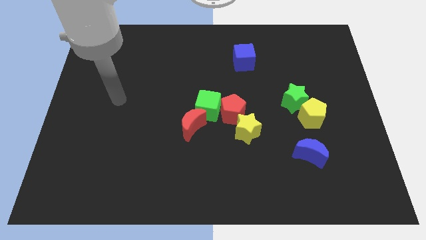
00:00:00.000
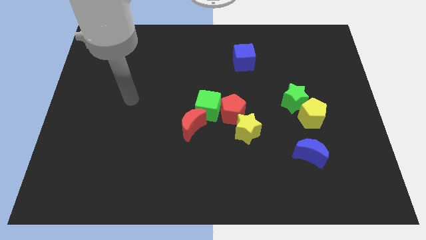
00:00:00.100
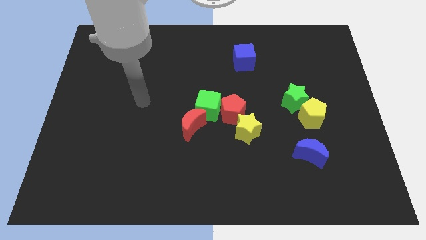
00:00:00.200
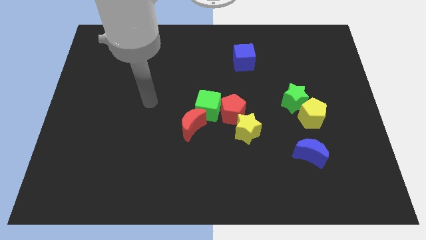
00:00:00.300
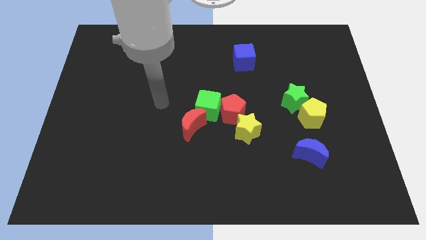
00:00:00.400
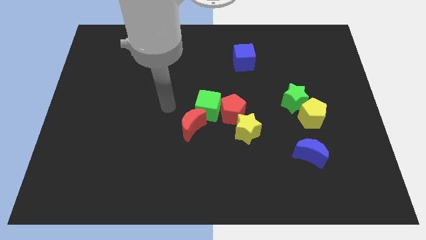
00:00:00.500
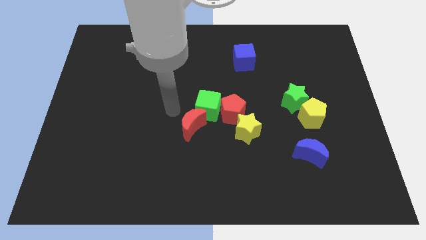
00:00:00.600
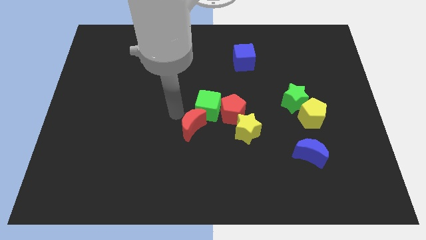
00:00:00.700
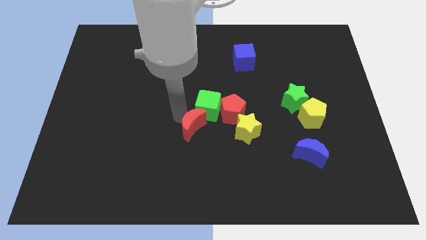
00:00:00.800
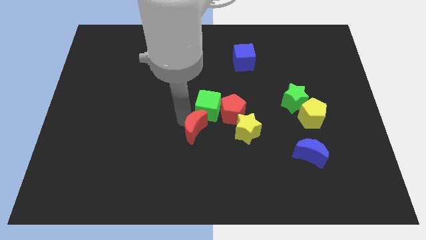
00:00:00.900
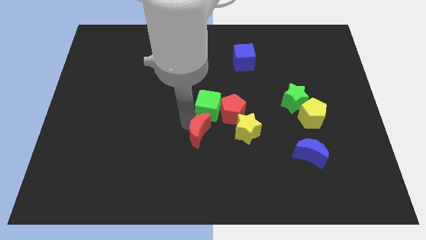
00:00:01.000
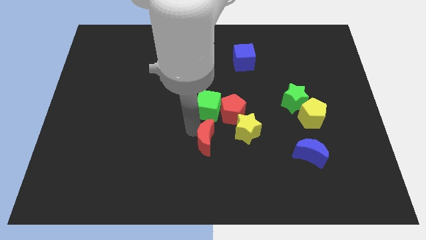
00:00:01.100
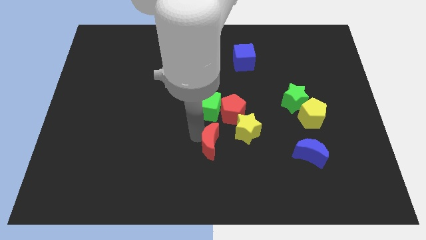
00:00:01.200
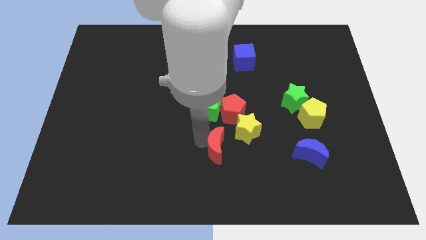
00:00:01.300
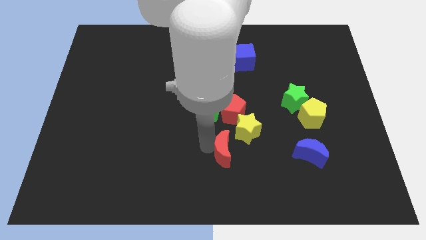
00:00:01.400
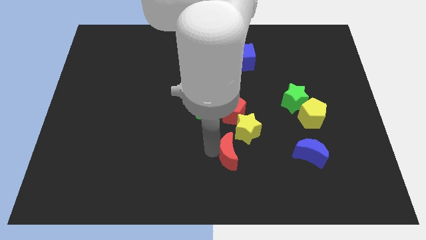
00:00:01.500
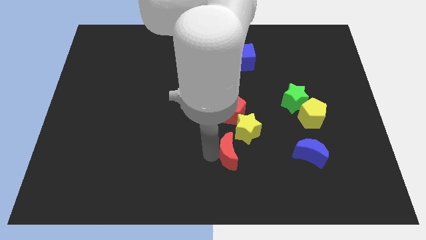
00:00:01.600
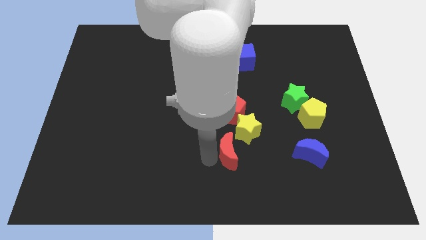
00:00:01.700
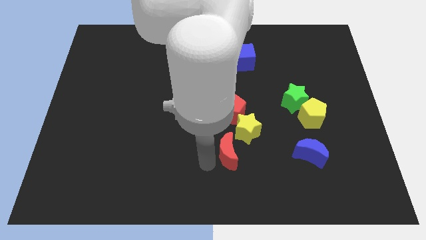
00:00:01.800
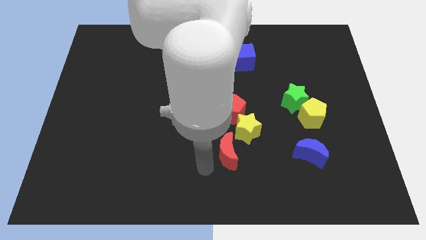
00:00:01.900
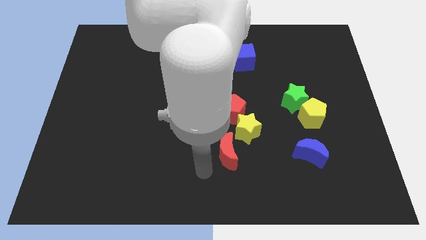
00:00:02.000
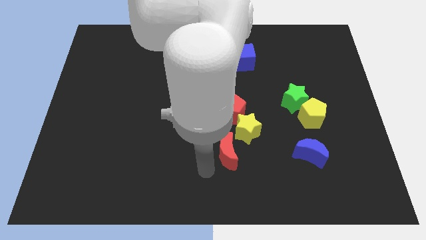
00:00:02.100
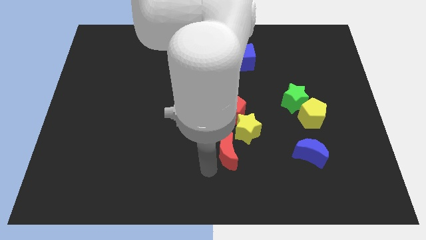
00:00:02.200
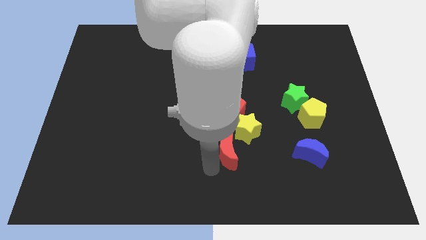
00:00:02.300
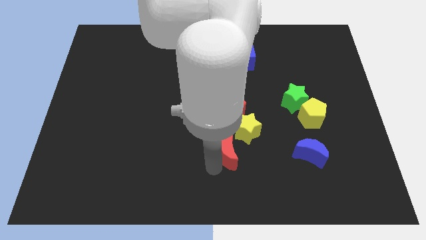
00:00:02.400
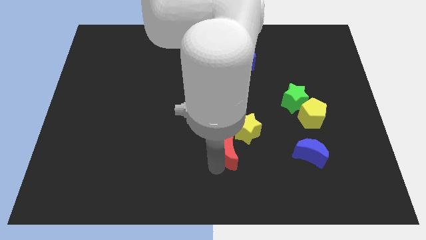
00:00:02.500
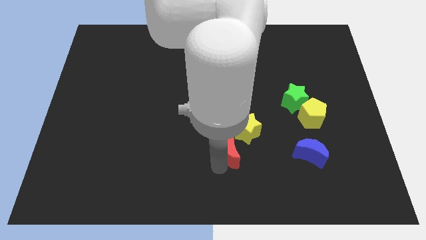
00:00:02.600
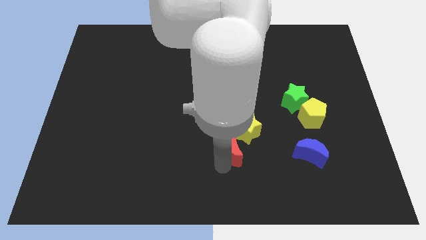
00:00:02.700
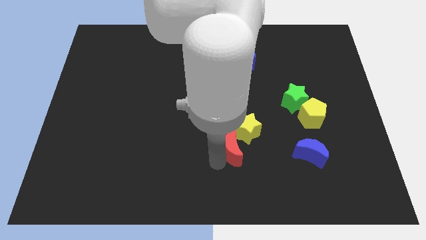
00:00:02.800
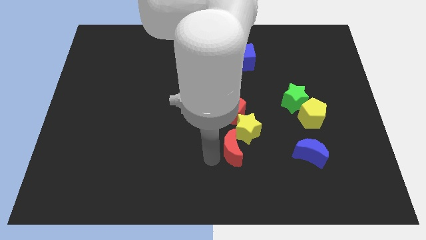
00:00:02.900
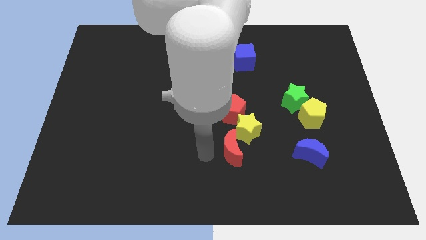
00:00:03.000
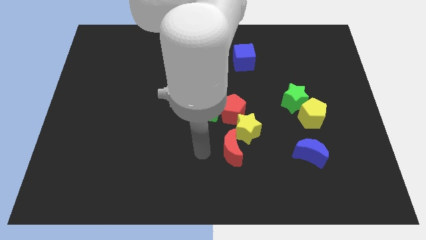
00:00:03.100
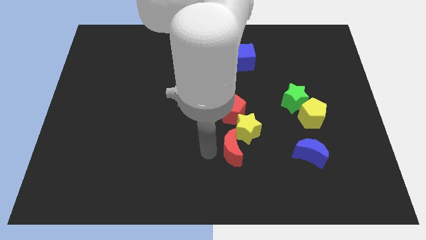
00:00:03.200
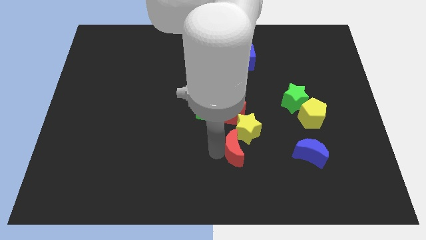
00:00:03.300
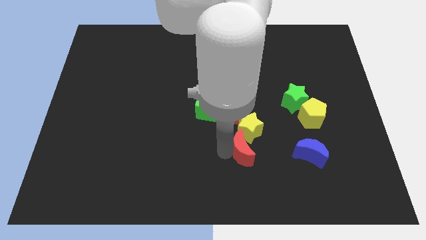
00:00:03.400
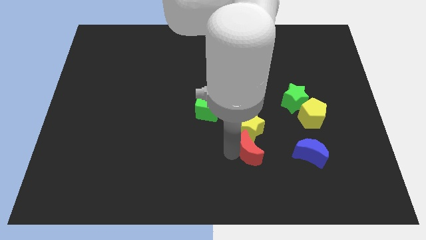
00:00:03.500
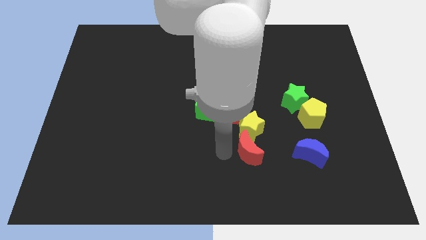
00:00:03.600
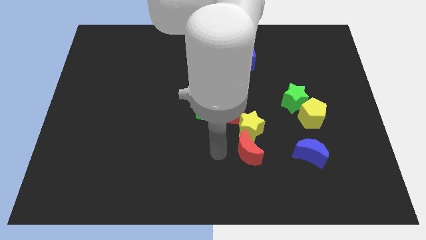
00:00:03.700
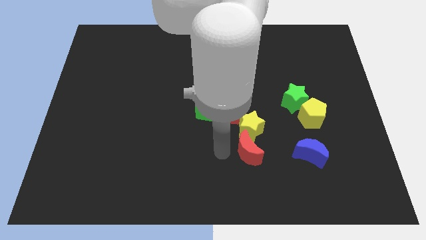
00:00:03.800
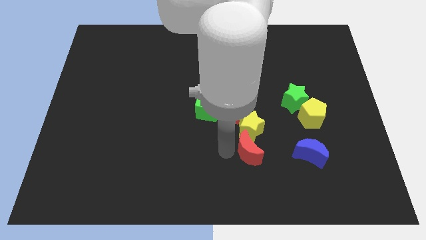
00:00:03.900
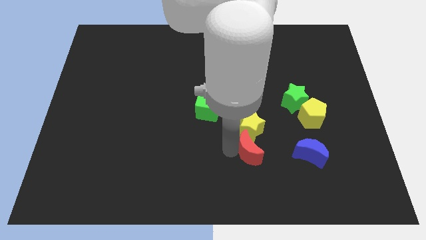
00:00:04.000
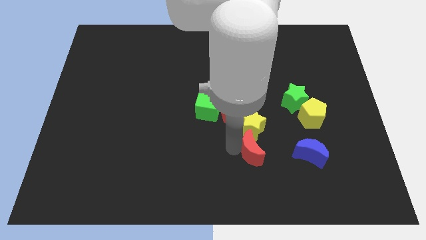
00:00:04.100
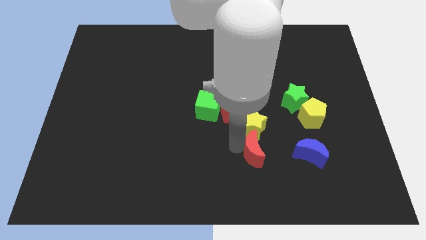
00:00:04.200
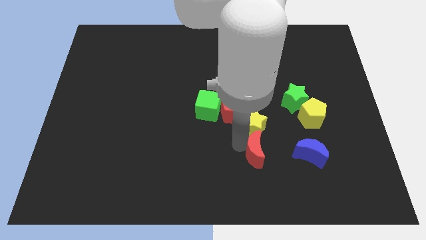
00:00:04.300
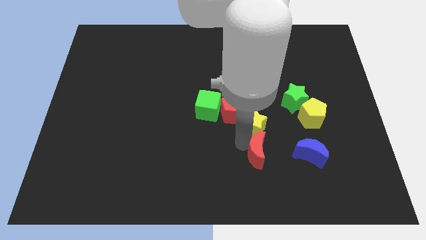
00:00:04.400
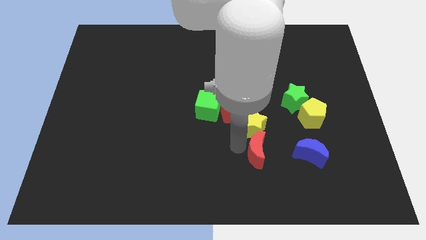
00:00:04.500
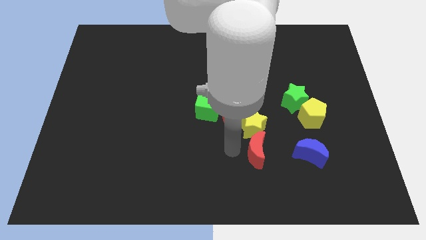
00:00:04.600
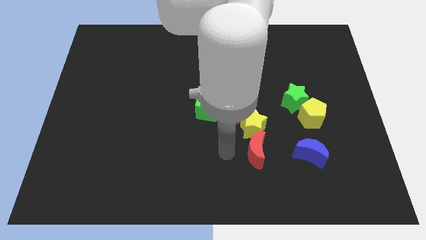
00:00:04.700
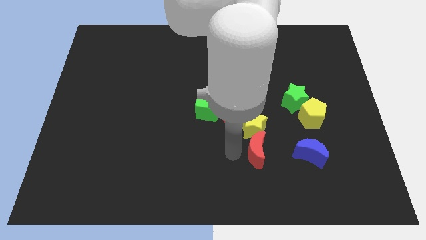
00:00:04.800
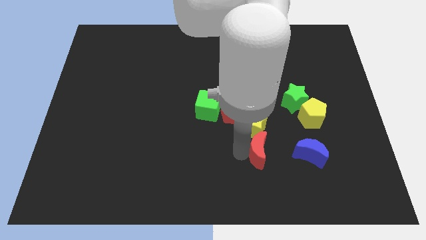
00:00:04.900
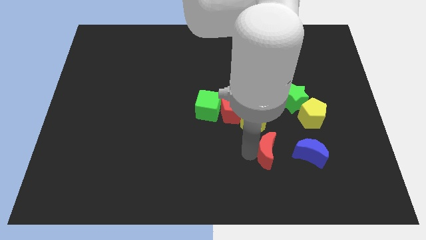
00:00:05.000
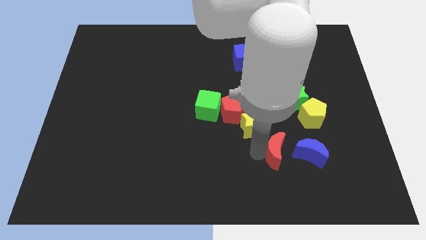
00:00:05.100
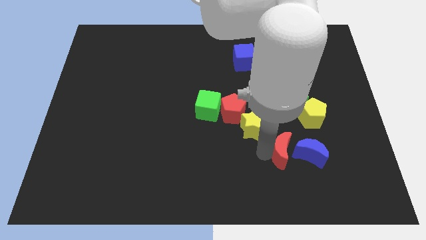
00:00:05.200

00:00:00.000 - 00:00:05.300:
push the red moon to the blue moon
